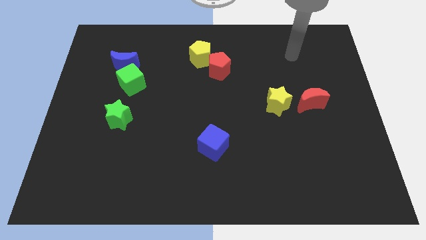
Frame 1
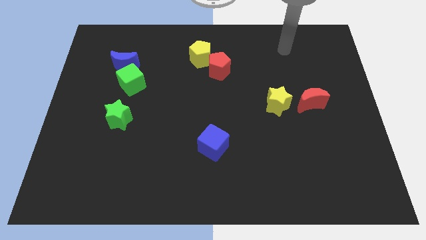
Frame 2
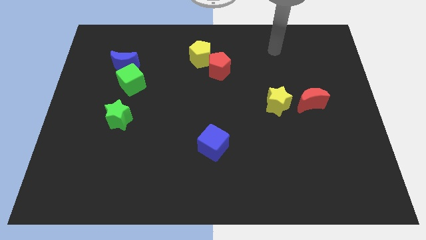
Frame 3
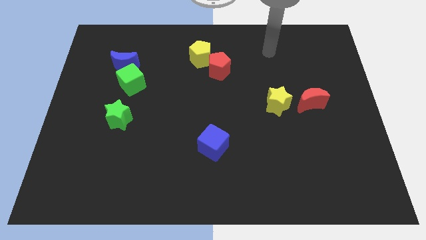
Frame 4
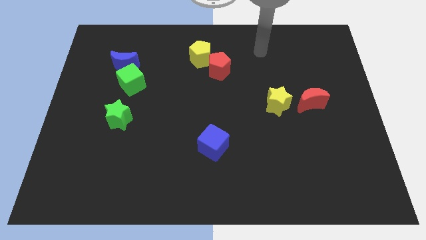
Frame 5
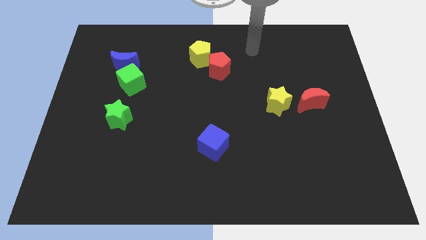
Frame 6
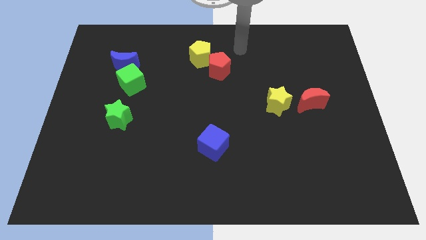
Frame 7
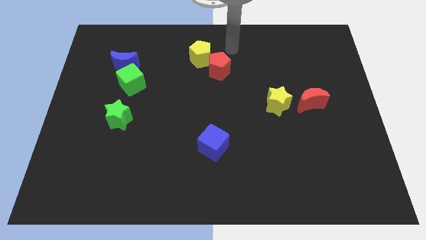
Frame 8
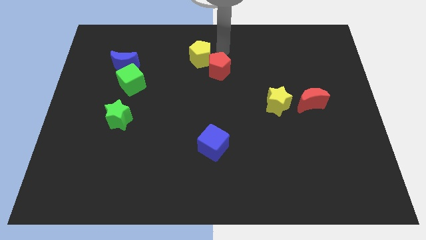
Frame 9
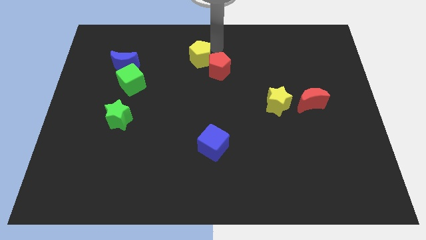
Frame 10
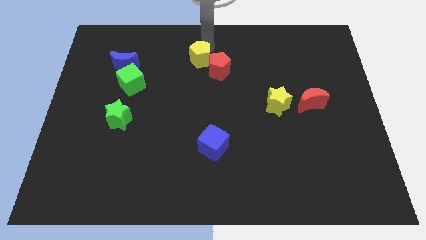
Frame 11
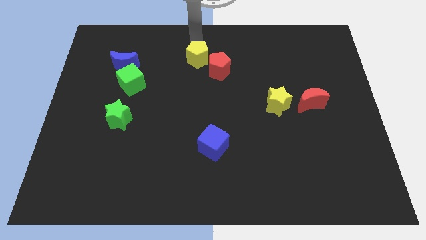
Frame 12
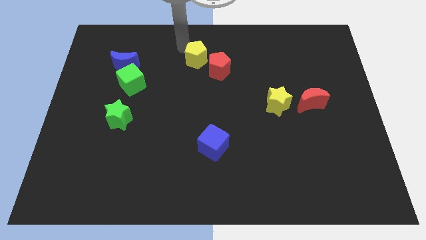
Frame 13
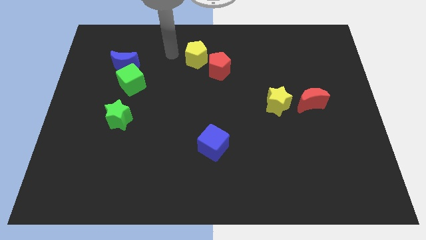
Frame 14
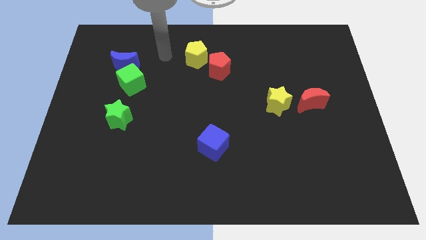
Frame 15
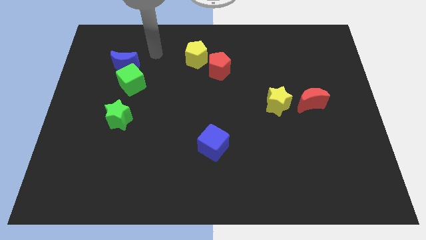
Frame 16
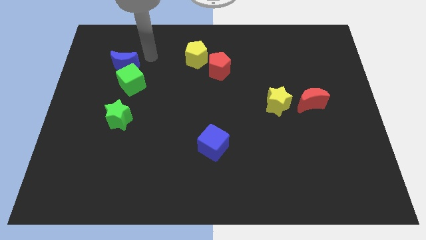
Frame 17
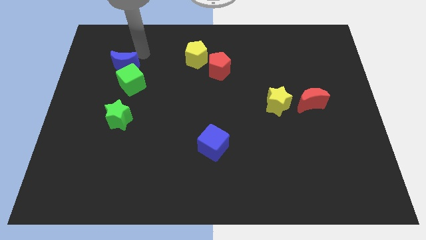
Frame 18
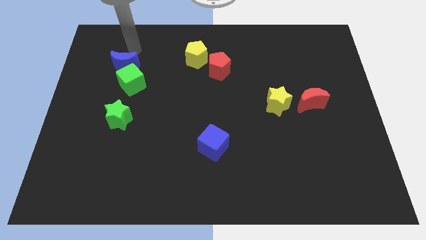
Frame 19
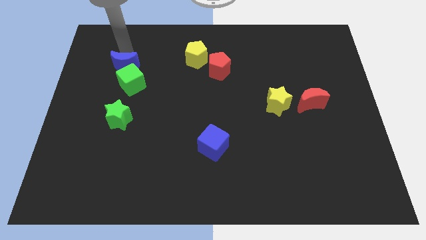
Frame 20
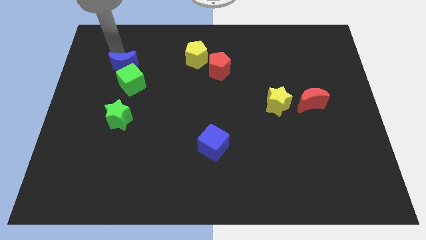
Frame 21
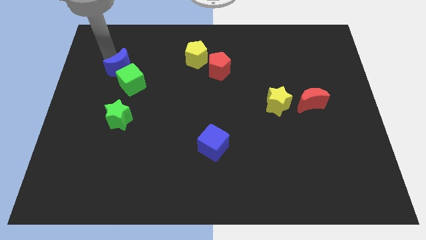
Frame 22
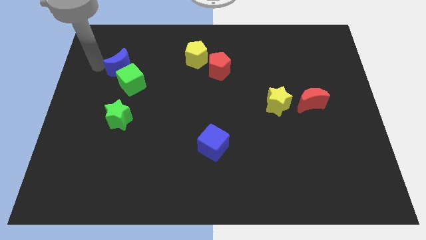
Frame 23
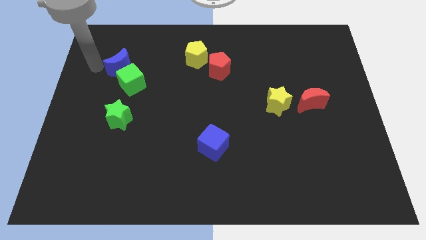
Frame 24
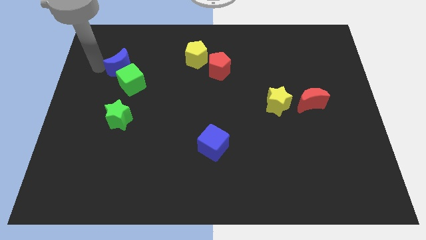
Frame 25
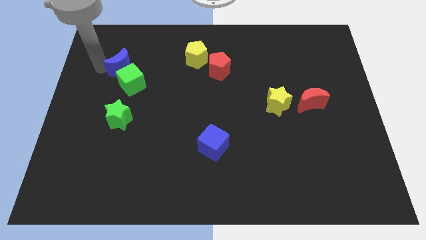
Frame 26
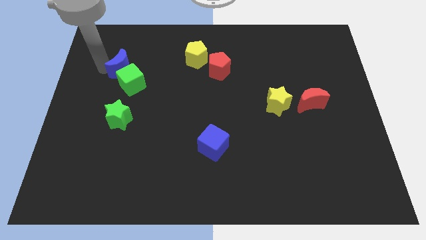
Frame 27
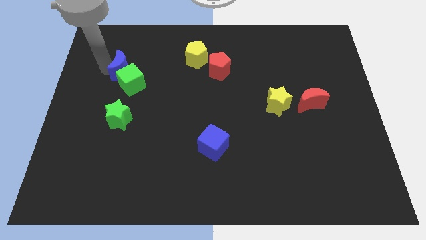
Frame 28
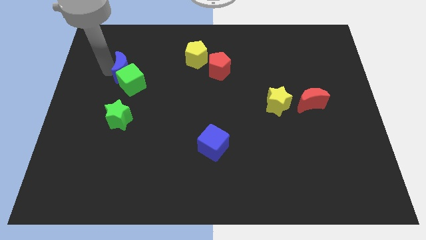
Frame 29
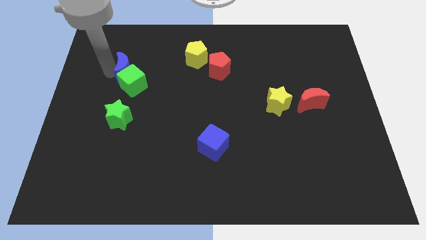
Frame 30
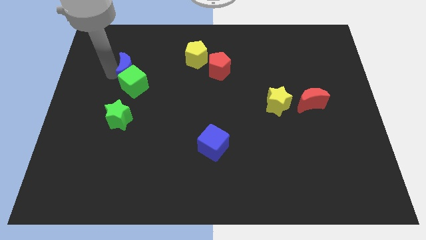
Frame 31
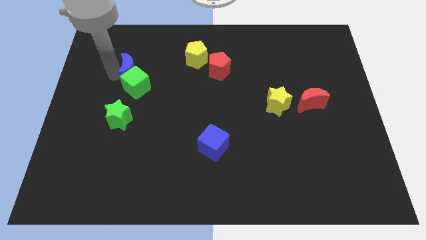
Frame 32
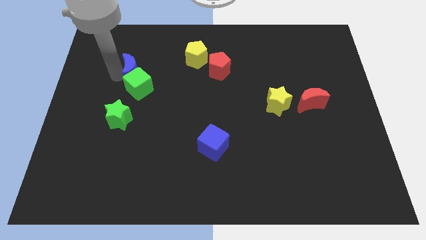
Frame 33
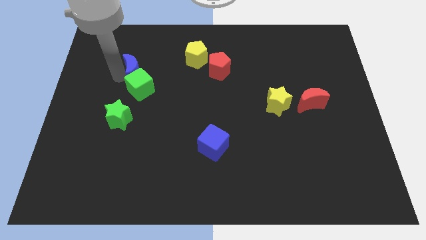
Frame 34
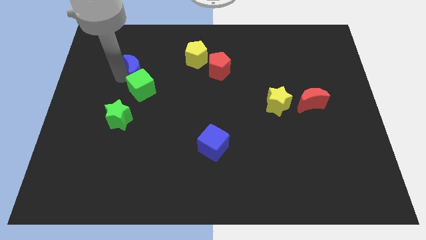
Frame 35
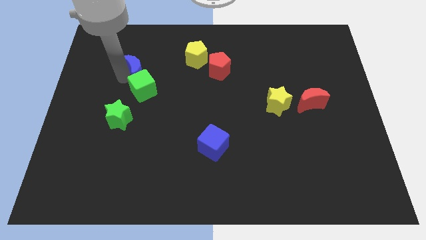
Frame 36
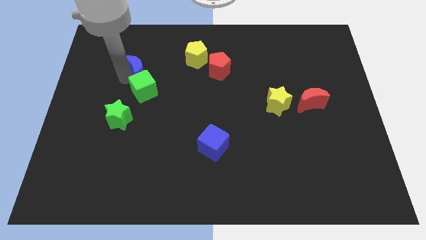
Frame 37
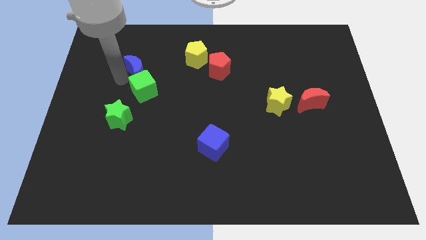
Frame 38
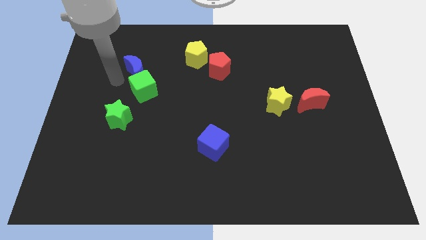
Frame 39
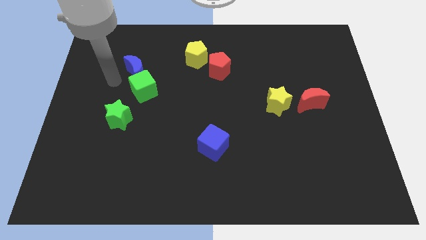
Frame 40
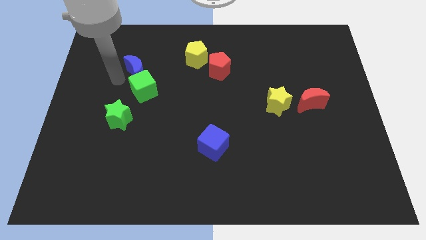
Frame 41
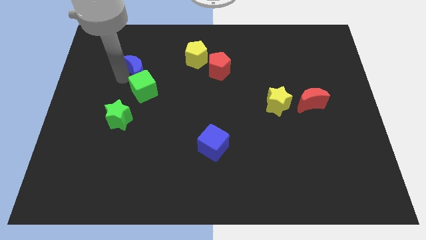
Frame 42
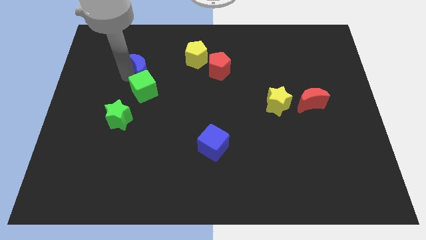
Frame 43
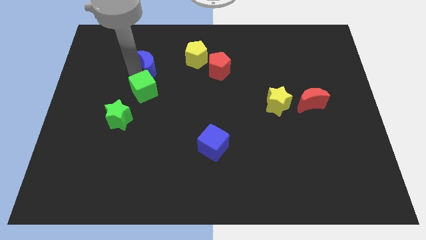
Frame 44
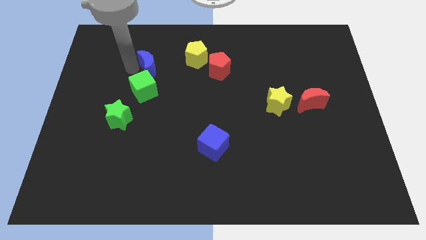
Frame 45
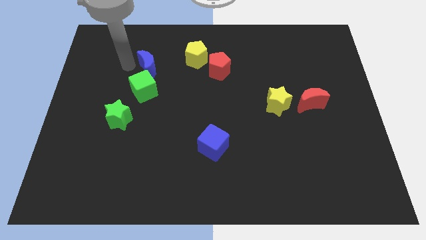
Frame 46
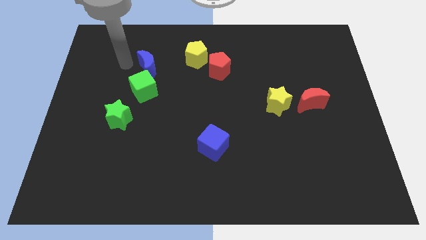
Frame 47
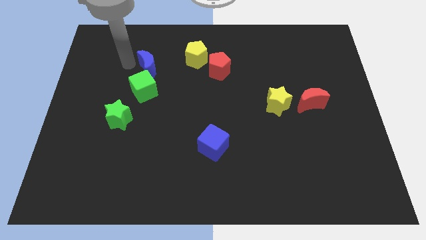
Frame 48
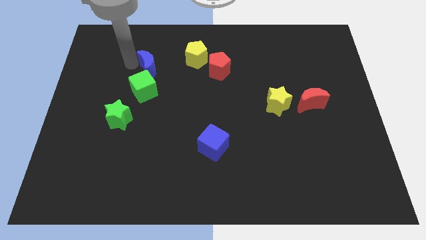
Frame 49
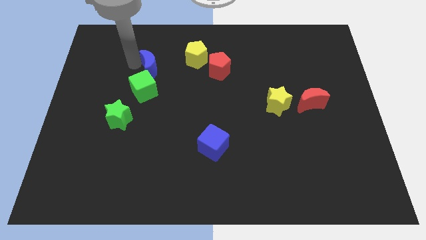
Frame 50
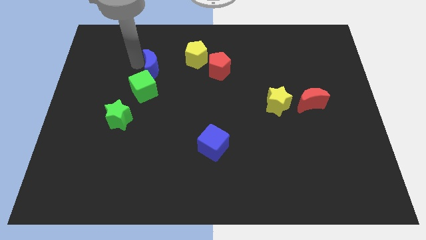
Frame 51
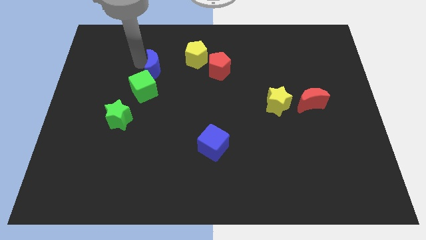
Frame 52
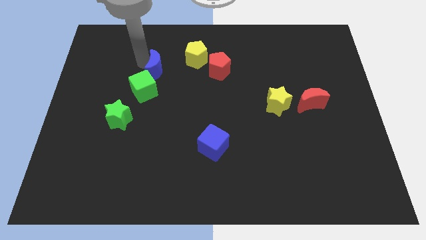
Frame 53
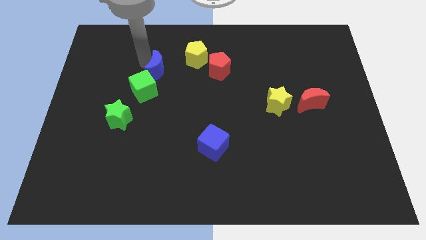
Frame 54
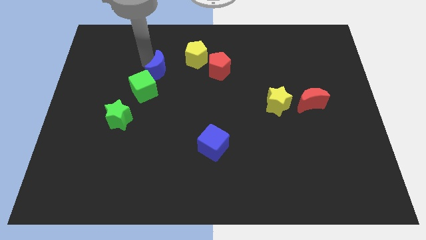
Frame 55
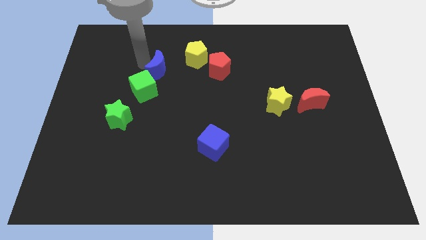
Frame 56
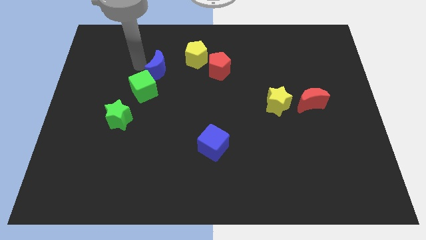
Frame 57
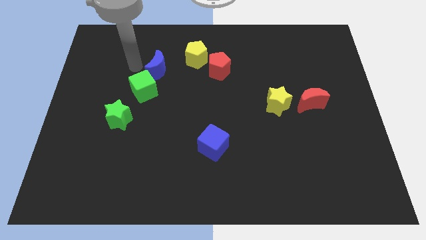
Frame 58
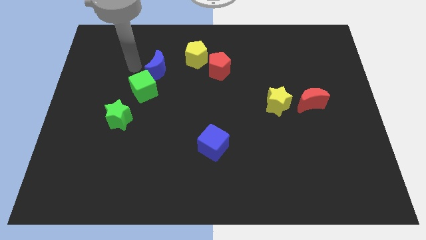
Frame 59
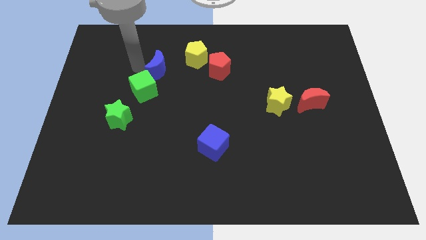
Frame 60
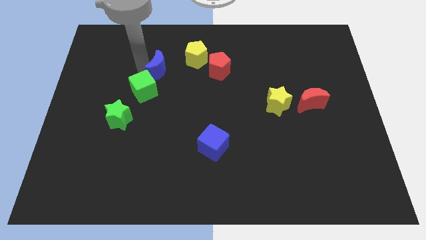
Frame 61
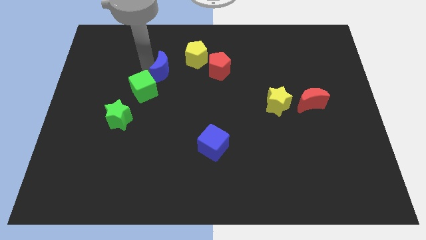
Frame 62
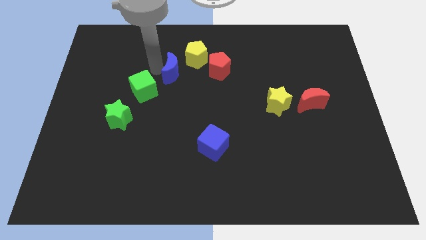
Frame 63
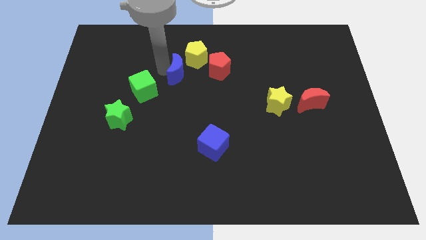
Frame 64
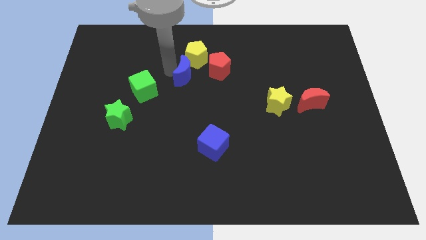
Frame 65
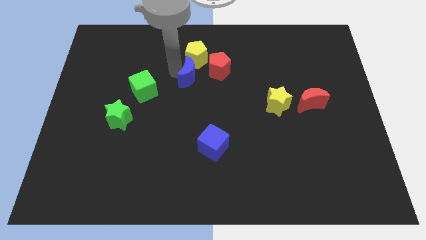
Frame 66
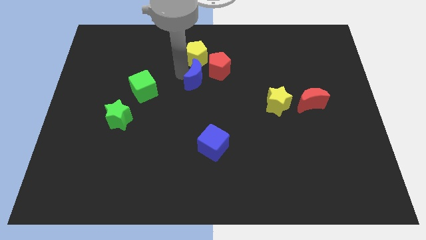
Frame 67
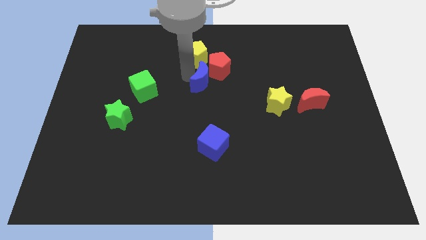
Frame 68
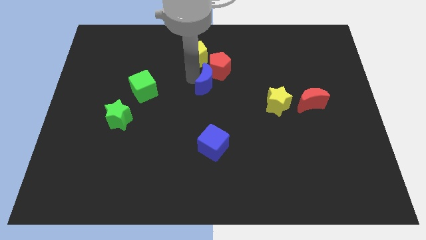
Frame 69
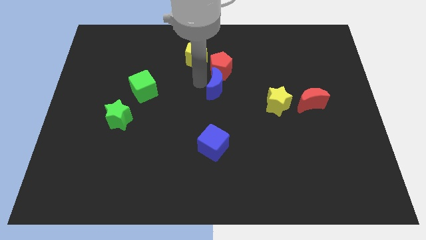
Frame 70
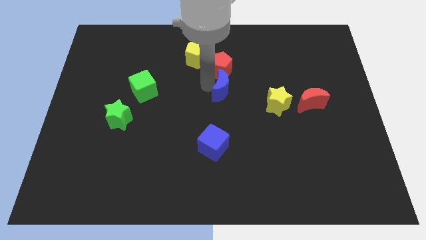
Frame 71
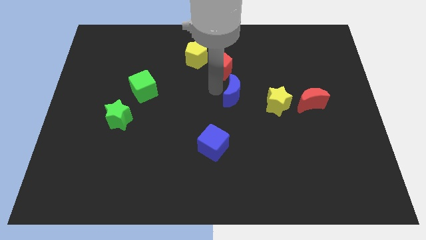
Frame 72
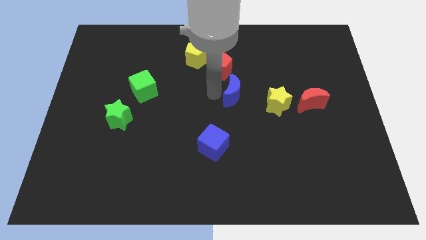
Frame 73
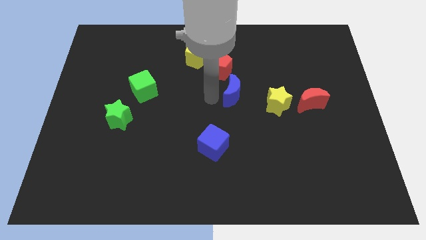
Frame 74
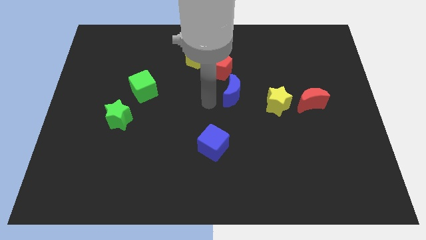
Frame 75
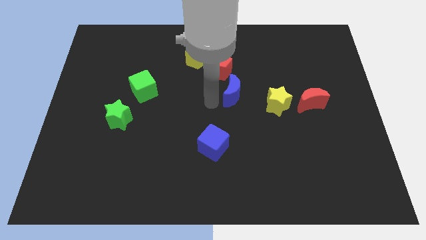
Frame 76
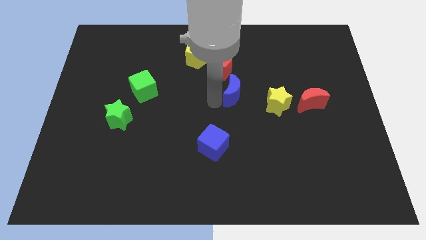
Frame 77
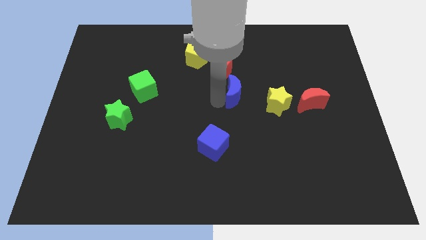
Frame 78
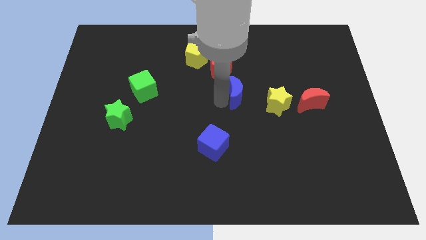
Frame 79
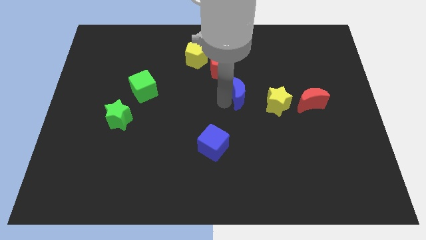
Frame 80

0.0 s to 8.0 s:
push the blue moon diagonally up and to the left of the yellow star

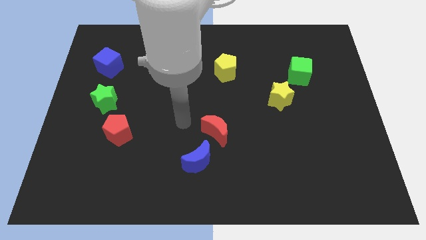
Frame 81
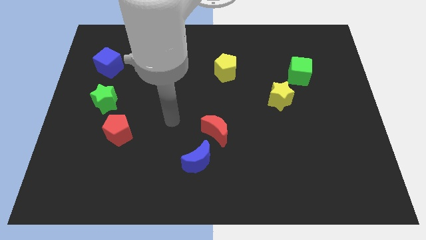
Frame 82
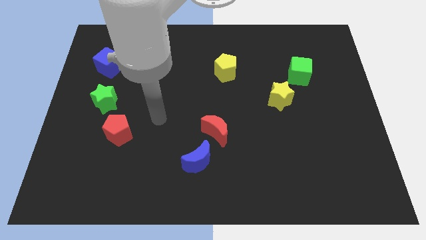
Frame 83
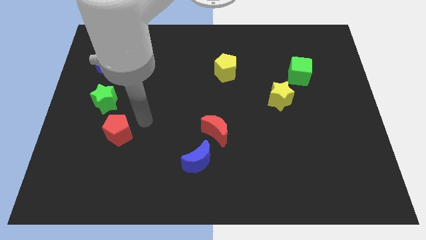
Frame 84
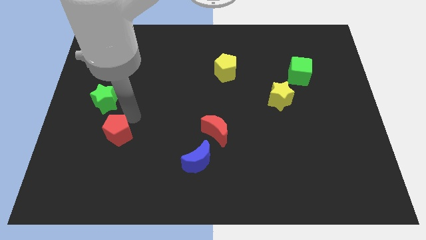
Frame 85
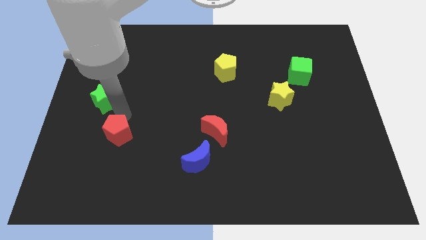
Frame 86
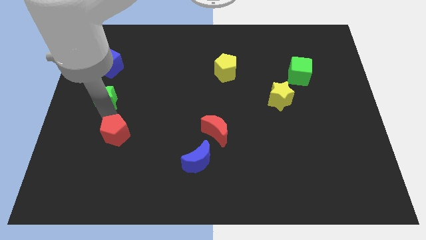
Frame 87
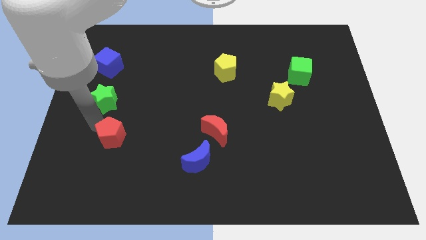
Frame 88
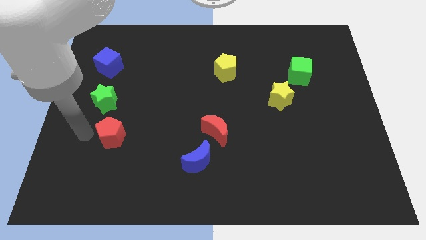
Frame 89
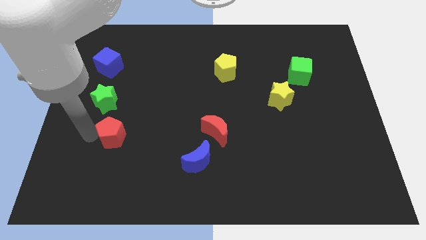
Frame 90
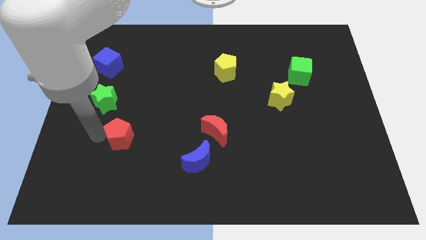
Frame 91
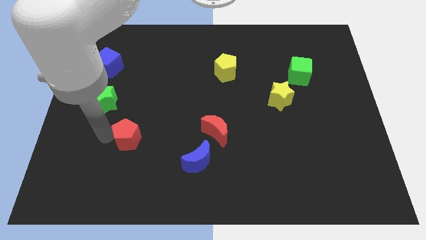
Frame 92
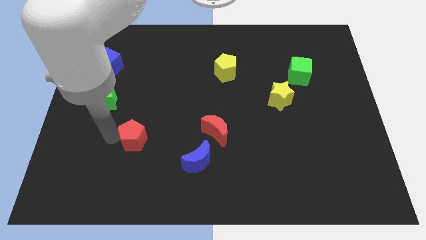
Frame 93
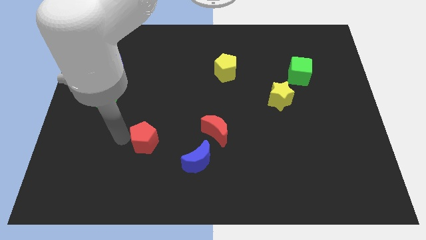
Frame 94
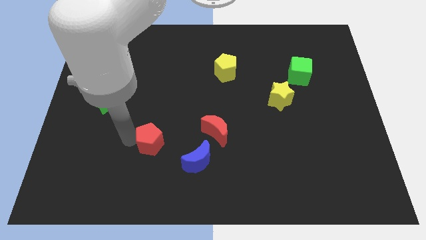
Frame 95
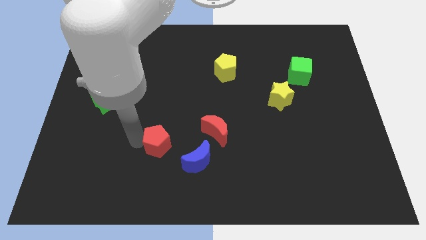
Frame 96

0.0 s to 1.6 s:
move the red pentagon to the top left side of the blue moon
